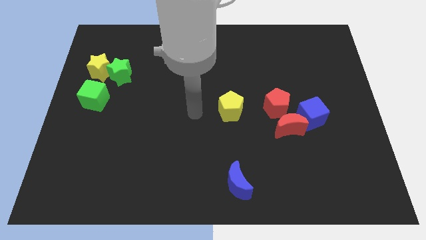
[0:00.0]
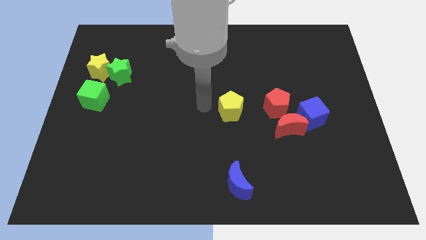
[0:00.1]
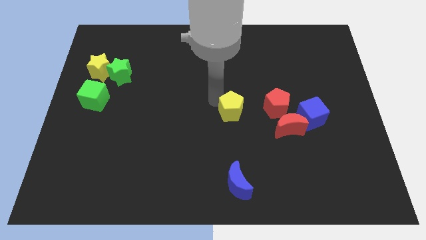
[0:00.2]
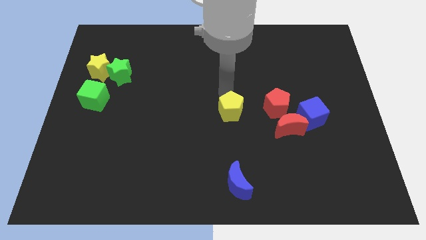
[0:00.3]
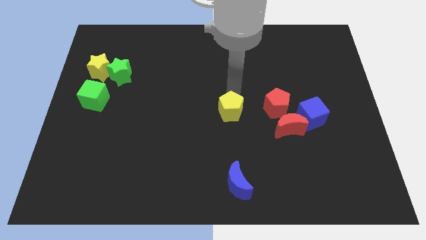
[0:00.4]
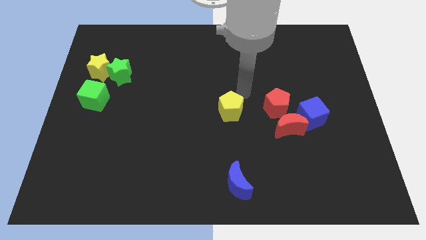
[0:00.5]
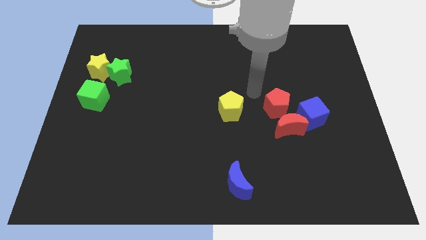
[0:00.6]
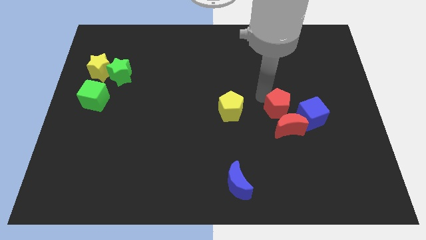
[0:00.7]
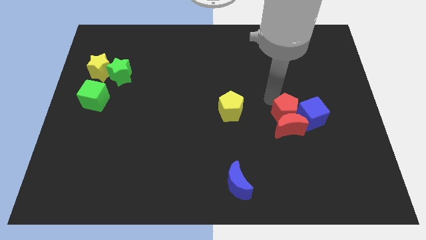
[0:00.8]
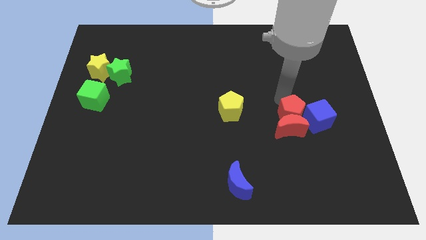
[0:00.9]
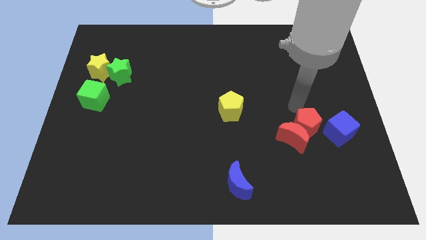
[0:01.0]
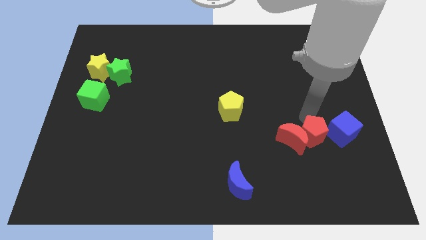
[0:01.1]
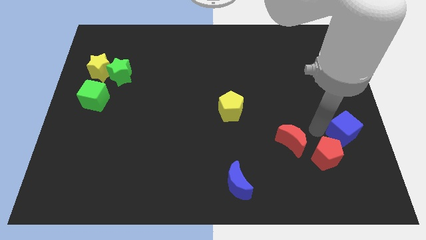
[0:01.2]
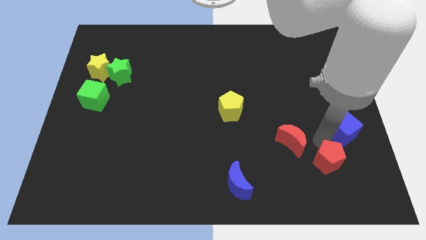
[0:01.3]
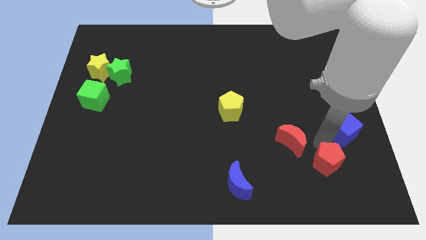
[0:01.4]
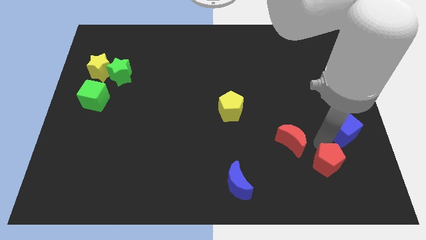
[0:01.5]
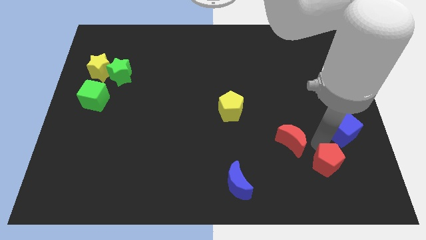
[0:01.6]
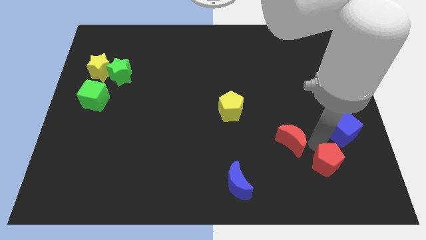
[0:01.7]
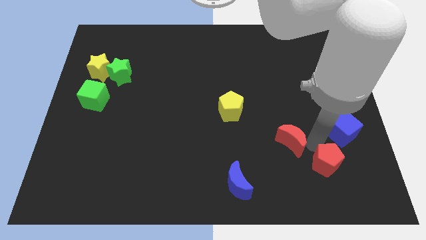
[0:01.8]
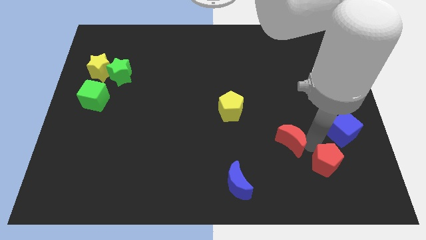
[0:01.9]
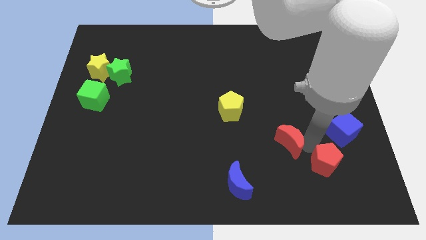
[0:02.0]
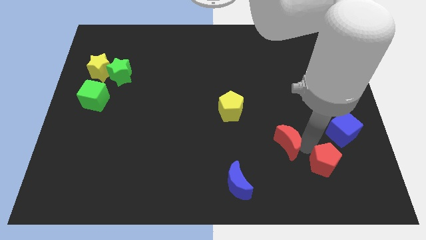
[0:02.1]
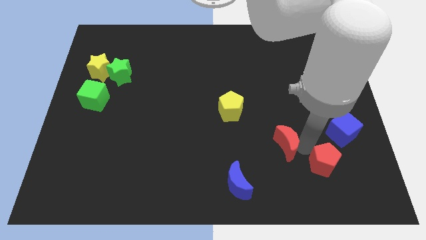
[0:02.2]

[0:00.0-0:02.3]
pull the red moon apart from the blue cube and red pentagon

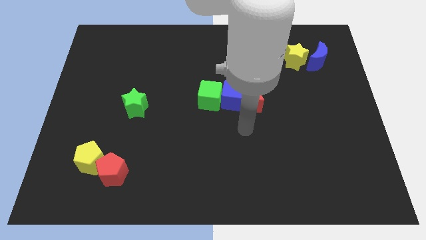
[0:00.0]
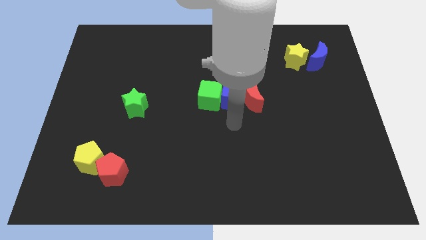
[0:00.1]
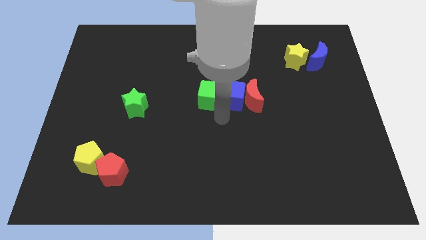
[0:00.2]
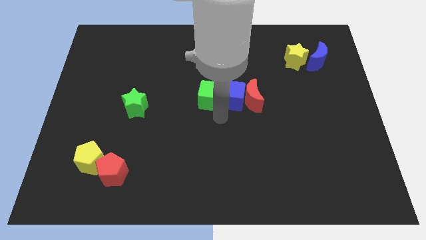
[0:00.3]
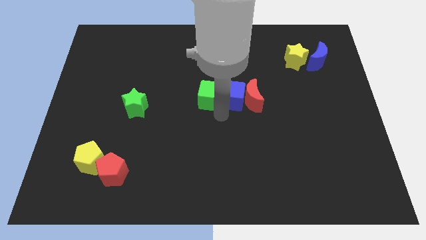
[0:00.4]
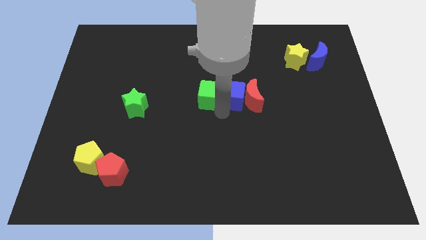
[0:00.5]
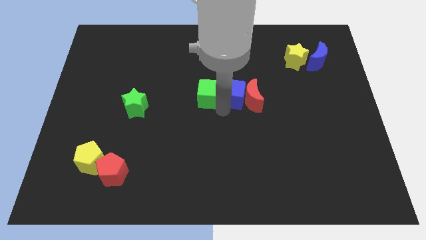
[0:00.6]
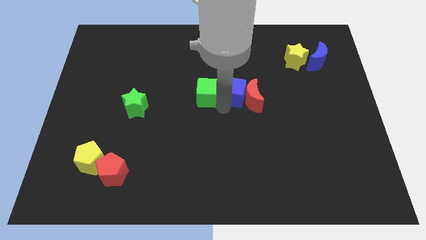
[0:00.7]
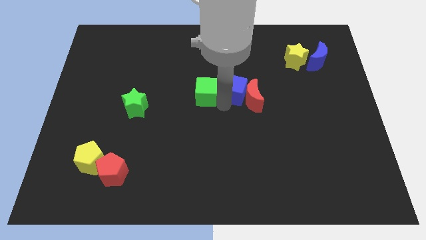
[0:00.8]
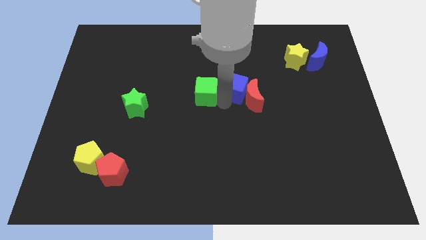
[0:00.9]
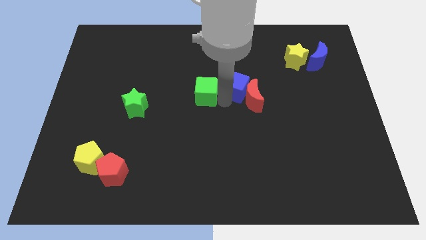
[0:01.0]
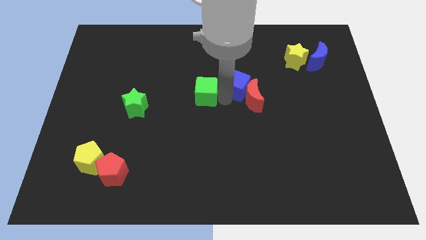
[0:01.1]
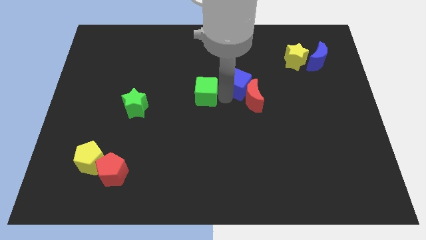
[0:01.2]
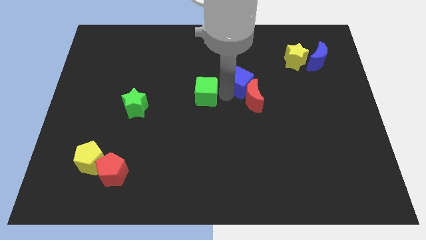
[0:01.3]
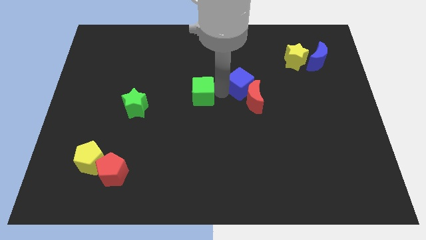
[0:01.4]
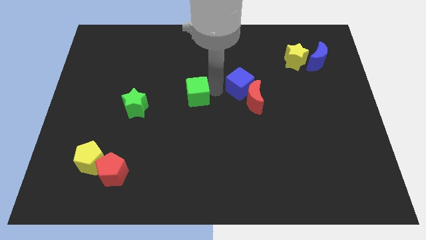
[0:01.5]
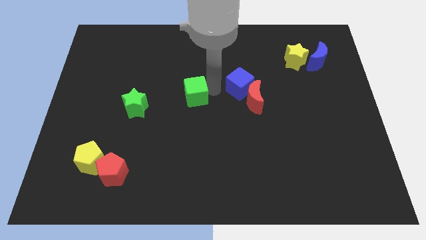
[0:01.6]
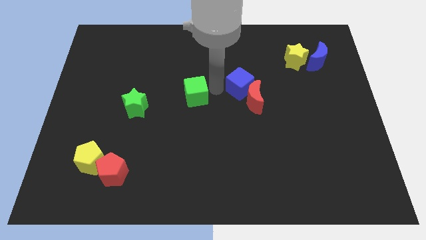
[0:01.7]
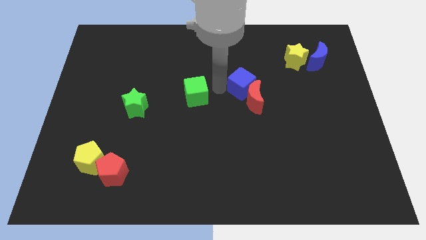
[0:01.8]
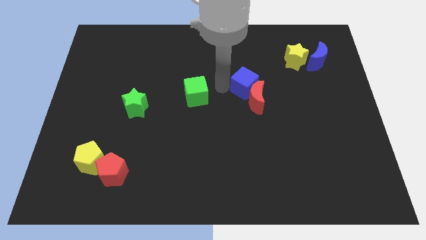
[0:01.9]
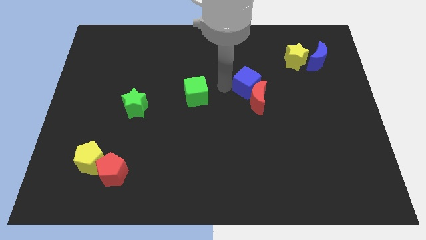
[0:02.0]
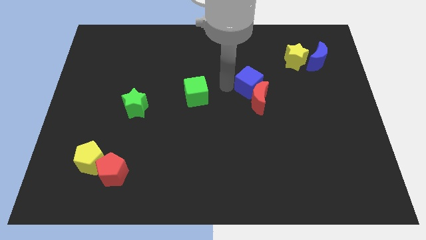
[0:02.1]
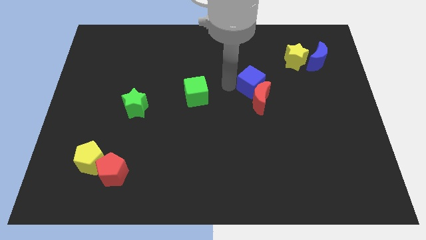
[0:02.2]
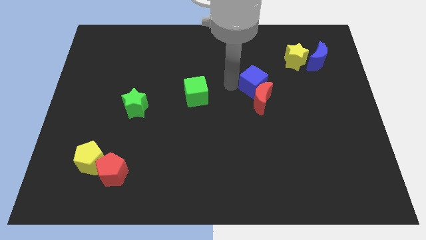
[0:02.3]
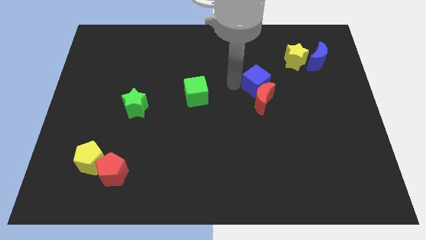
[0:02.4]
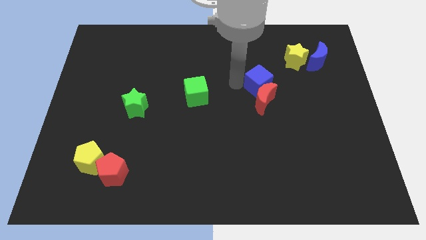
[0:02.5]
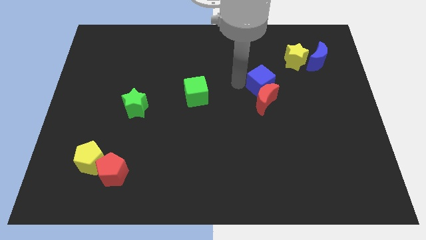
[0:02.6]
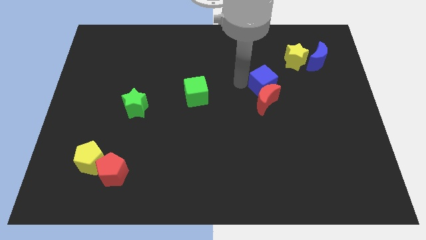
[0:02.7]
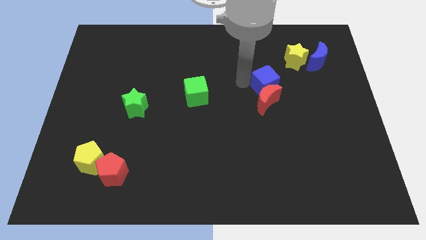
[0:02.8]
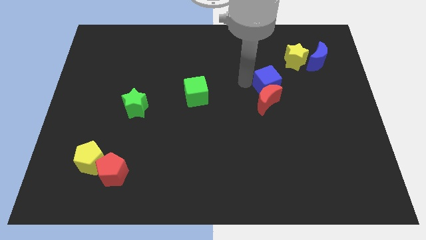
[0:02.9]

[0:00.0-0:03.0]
pull the blue cube apart from the red moon and green cube

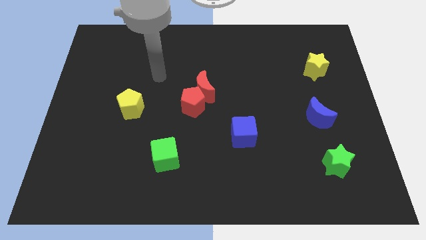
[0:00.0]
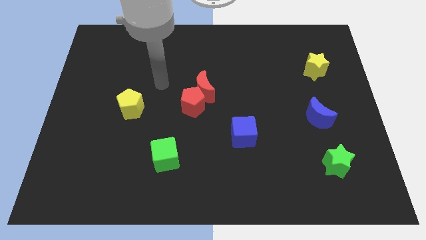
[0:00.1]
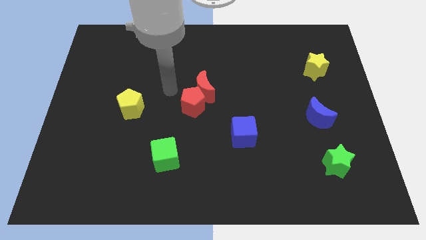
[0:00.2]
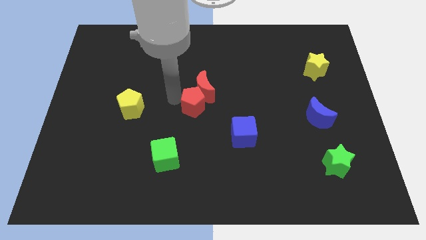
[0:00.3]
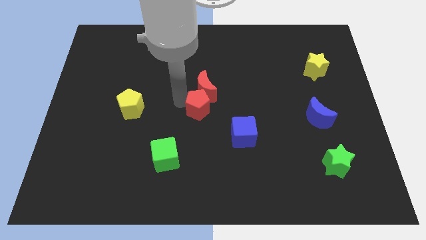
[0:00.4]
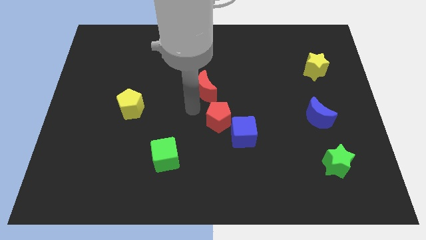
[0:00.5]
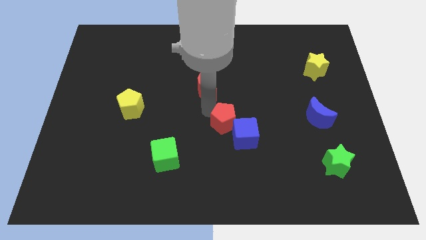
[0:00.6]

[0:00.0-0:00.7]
move the red moon away from the red pentagon

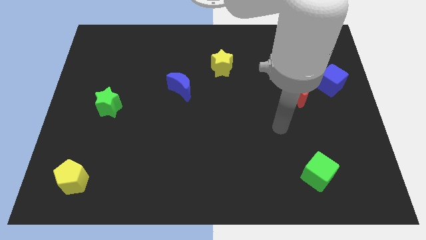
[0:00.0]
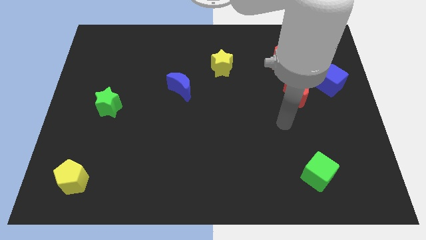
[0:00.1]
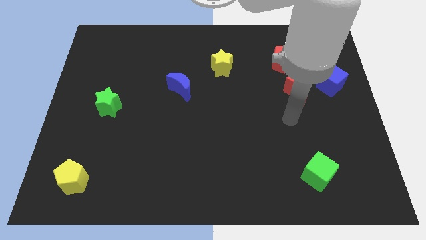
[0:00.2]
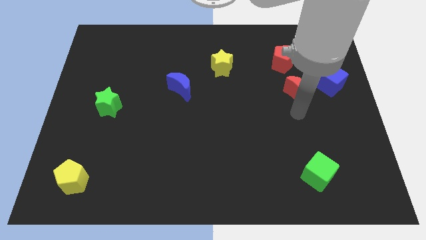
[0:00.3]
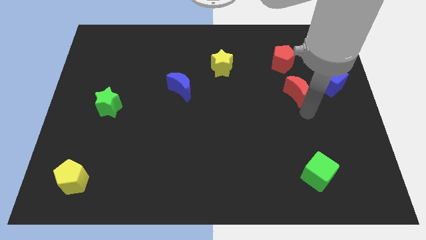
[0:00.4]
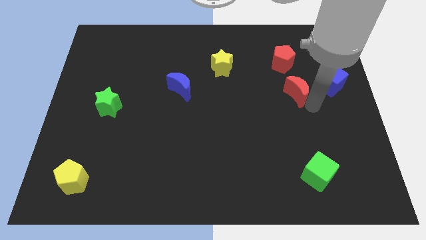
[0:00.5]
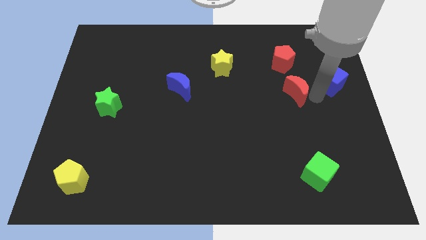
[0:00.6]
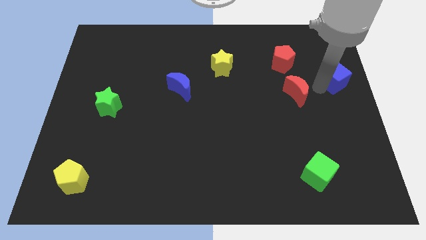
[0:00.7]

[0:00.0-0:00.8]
separate the red moon from the blue cube

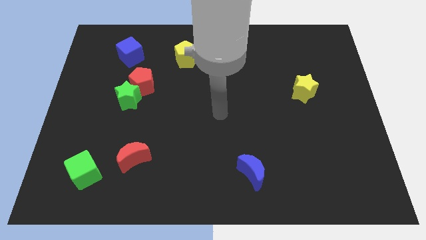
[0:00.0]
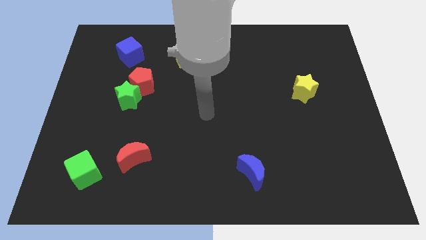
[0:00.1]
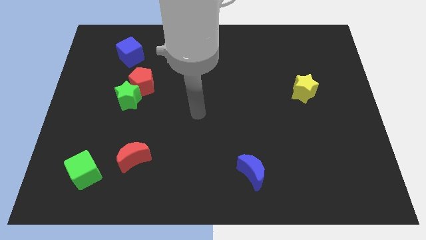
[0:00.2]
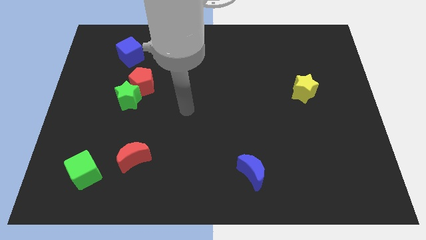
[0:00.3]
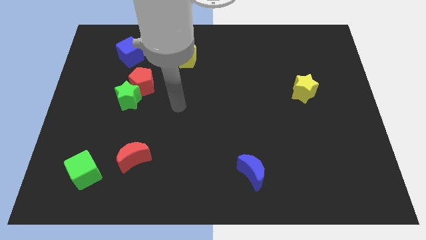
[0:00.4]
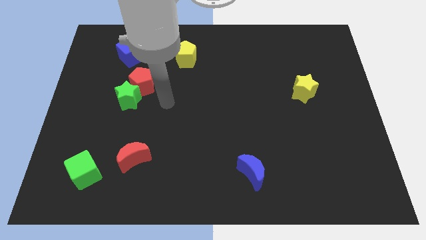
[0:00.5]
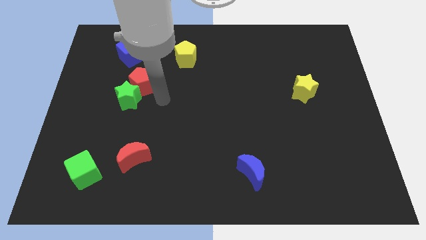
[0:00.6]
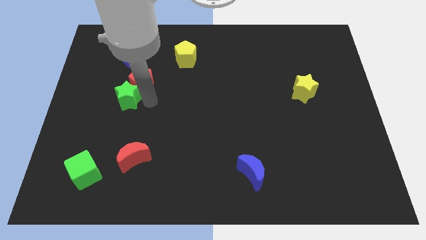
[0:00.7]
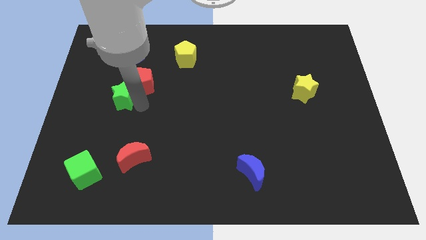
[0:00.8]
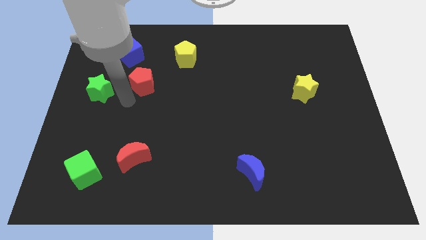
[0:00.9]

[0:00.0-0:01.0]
move the red pentagon away from the green star

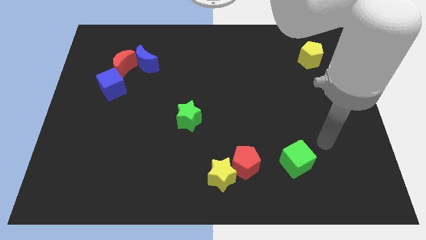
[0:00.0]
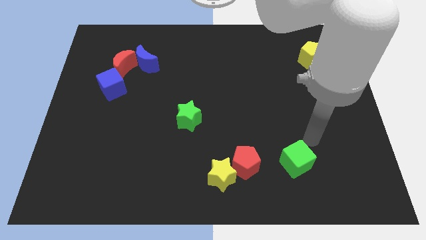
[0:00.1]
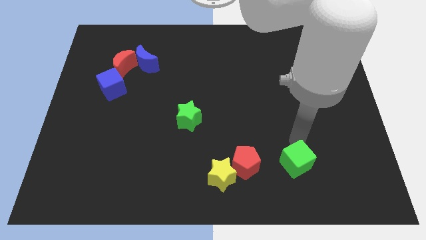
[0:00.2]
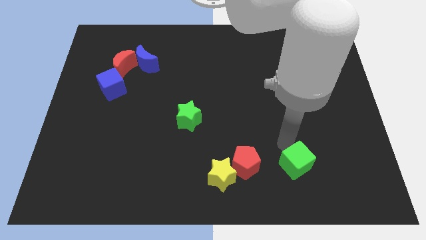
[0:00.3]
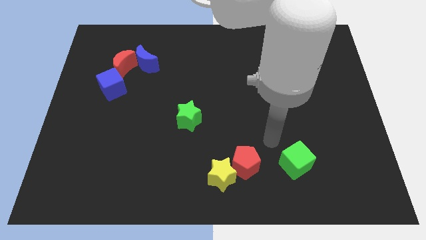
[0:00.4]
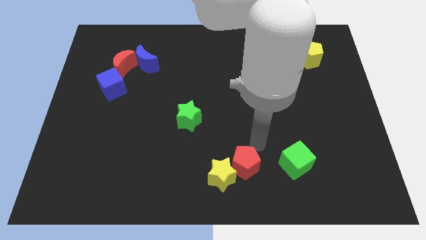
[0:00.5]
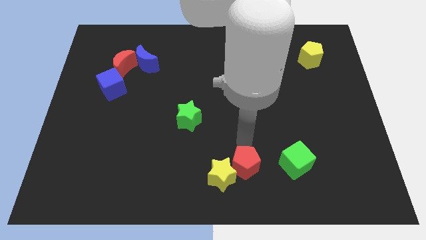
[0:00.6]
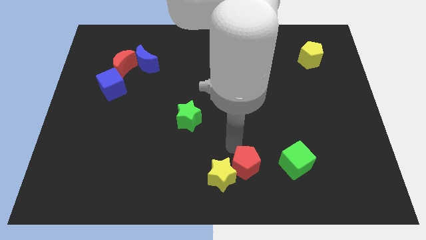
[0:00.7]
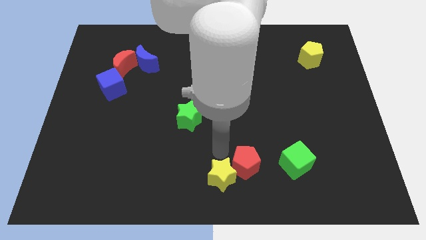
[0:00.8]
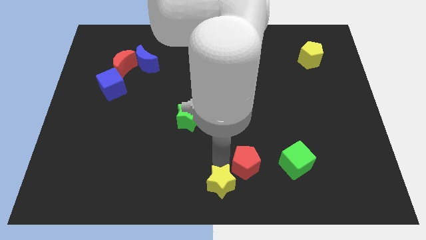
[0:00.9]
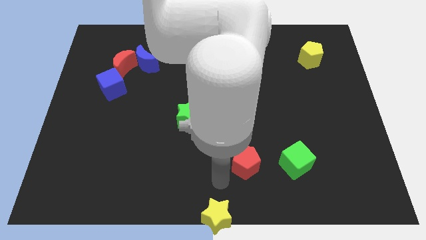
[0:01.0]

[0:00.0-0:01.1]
move the red pentagon away from the yellow star

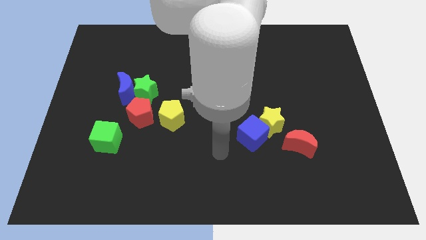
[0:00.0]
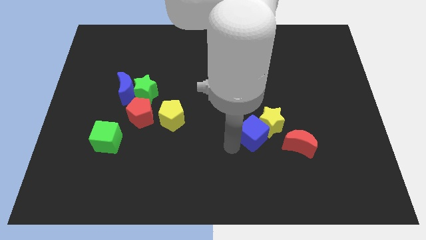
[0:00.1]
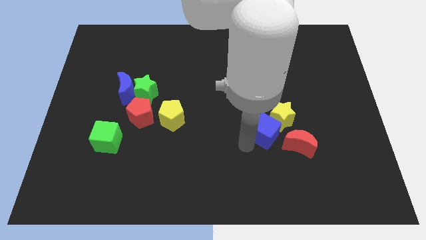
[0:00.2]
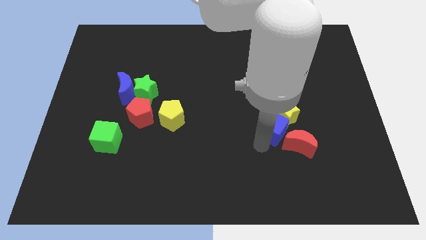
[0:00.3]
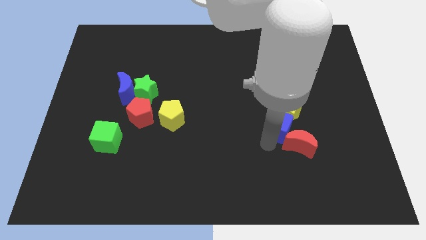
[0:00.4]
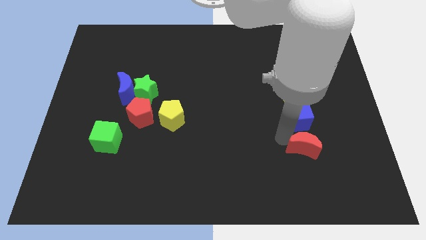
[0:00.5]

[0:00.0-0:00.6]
move the yellow star away from the blue cube and red moon
